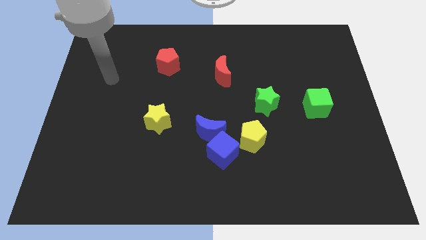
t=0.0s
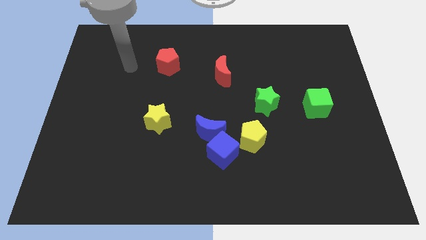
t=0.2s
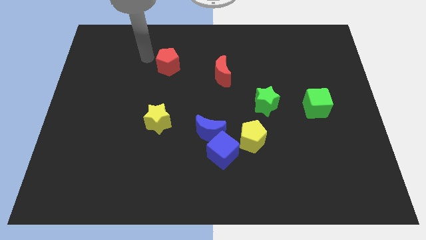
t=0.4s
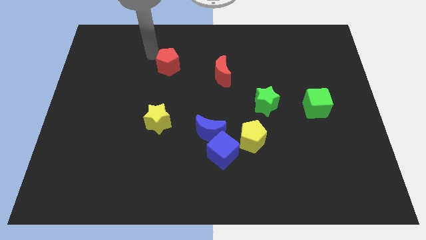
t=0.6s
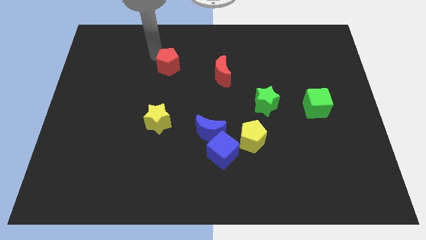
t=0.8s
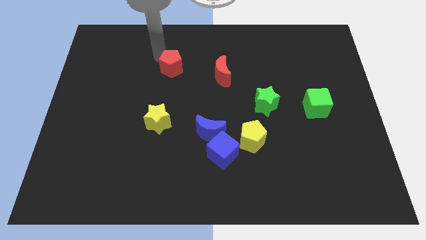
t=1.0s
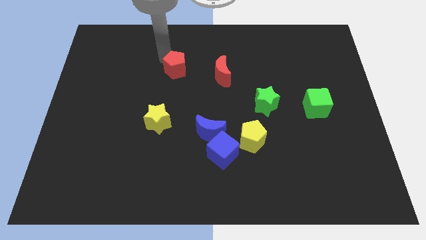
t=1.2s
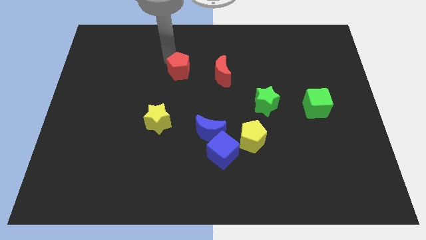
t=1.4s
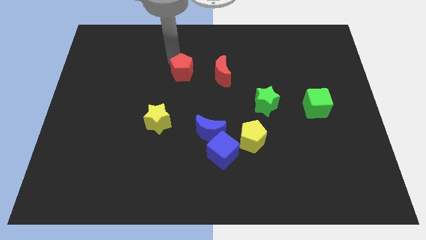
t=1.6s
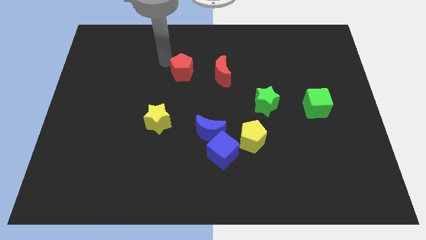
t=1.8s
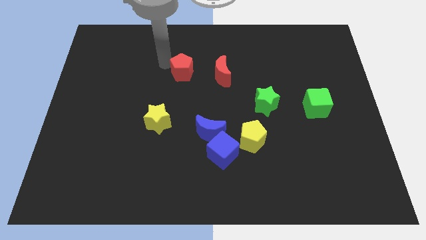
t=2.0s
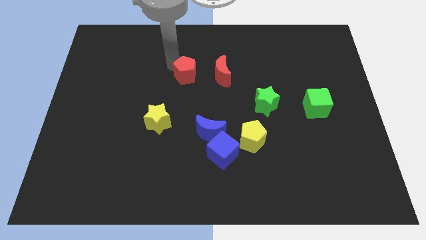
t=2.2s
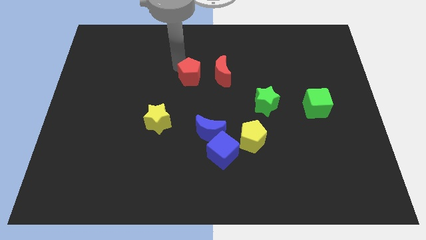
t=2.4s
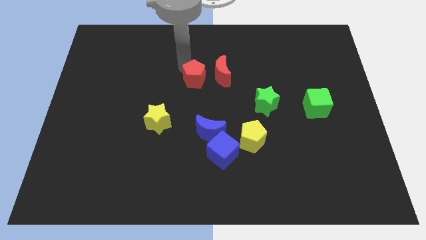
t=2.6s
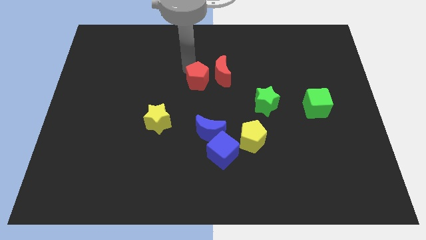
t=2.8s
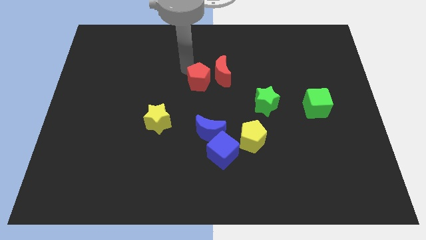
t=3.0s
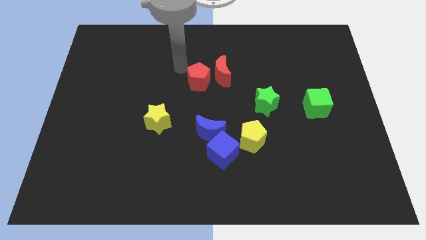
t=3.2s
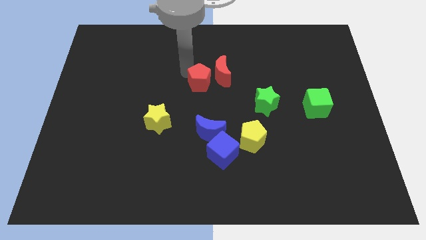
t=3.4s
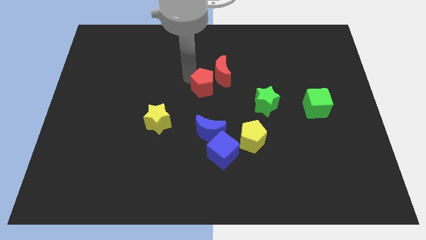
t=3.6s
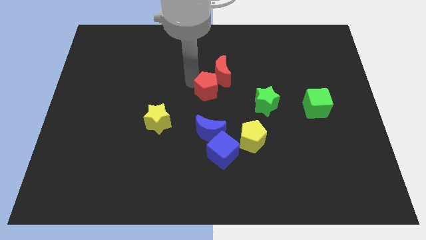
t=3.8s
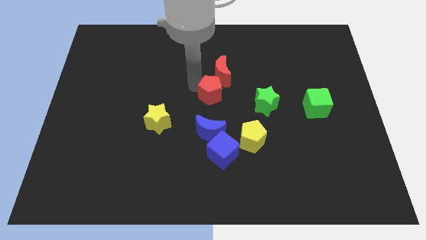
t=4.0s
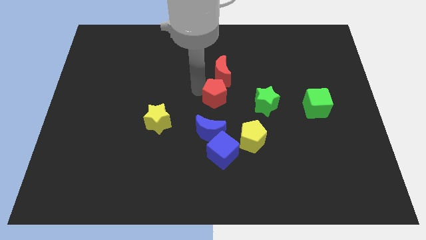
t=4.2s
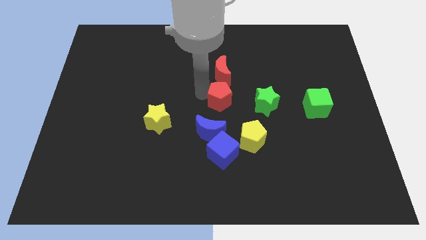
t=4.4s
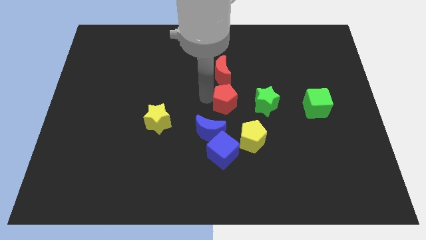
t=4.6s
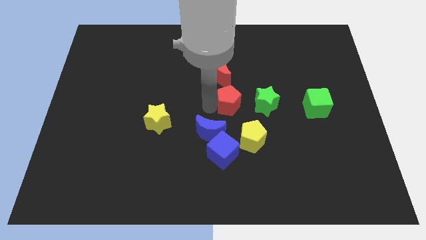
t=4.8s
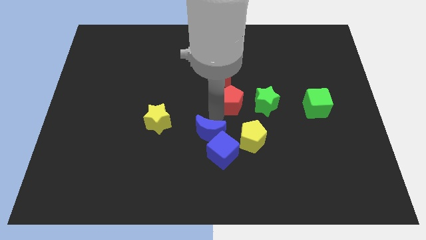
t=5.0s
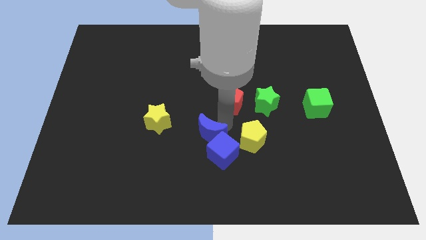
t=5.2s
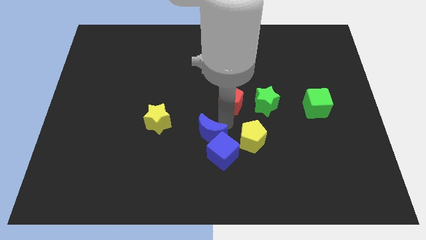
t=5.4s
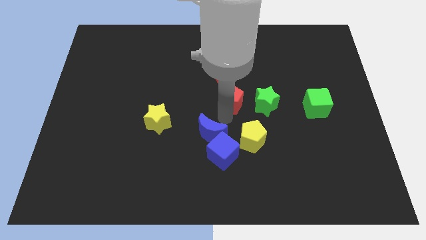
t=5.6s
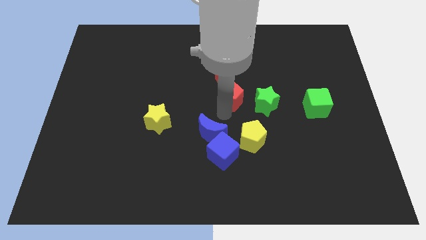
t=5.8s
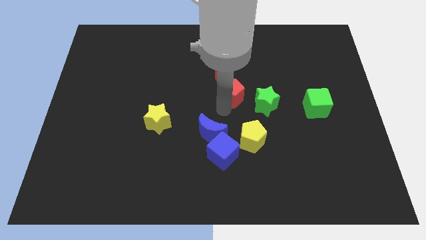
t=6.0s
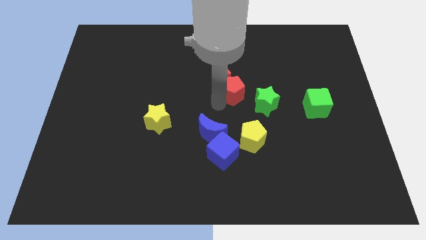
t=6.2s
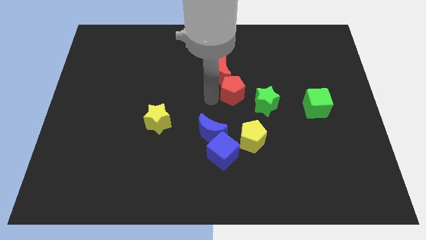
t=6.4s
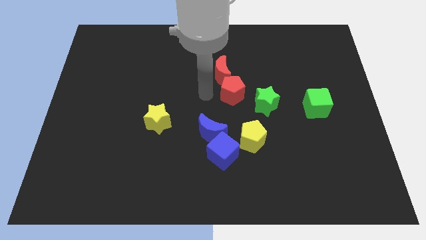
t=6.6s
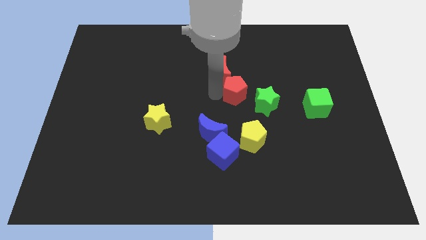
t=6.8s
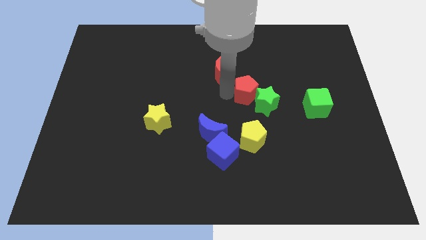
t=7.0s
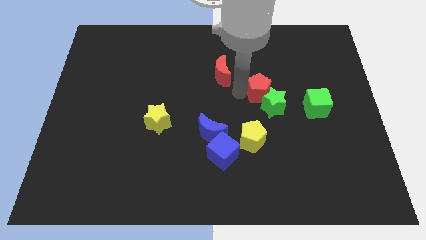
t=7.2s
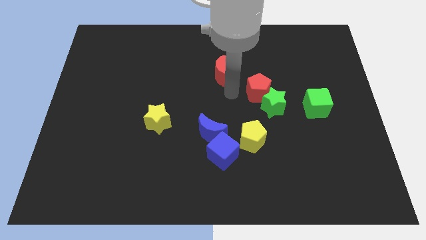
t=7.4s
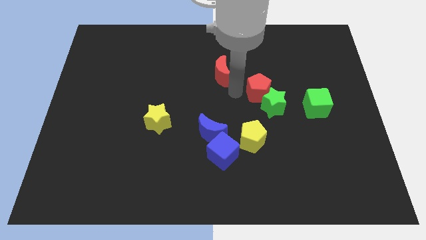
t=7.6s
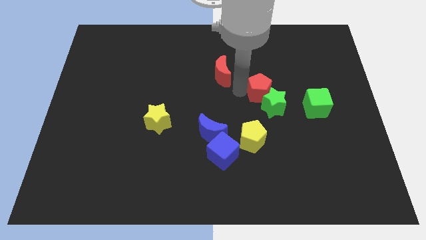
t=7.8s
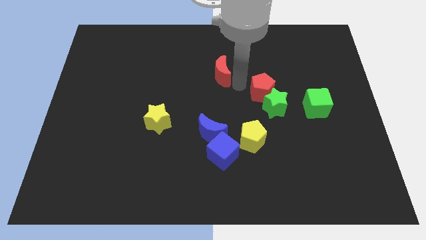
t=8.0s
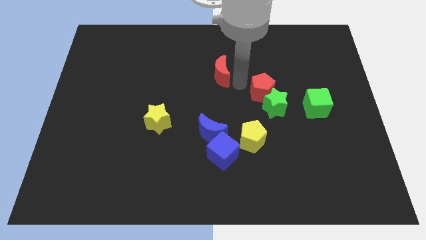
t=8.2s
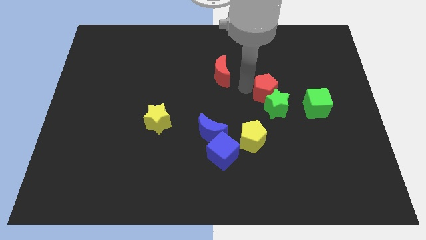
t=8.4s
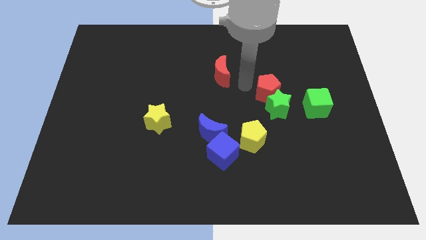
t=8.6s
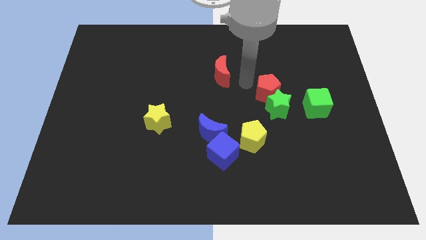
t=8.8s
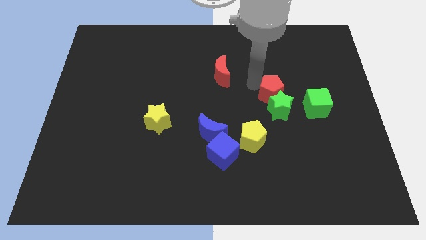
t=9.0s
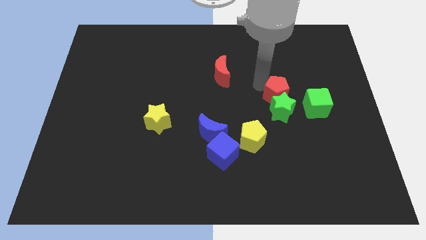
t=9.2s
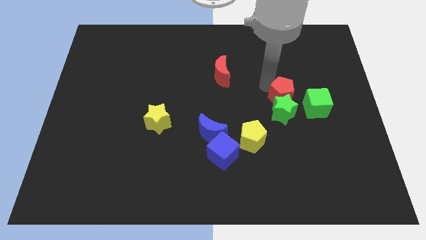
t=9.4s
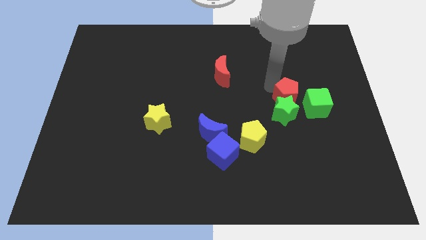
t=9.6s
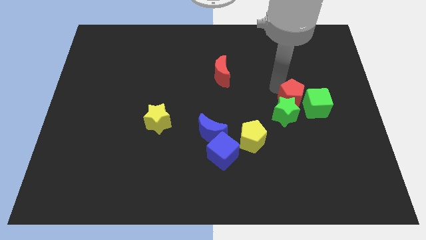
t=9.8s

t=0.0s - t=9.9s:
push the red pentagon to the green cube

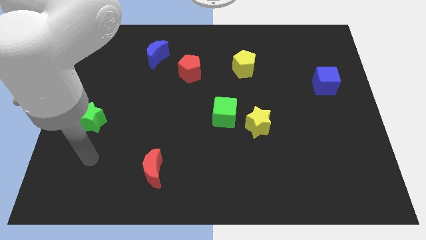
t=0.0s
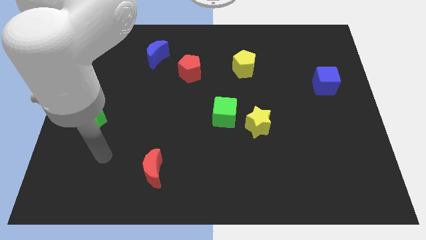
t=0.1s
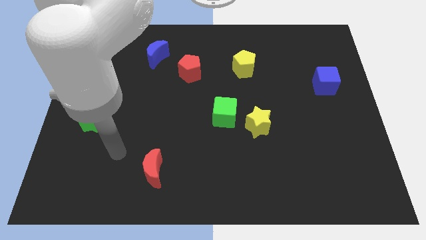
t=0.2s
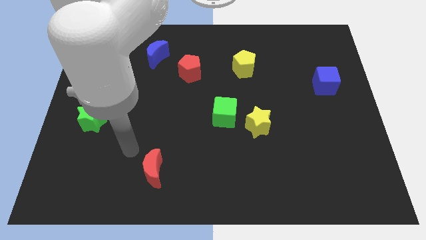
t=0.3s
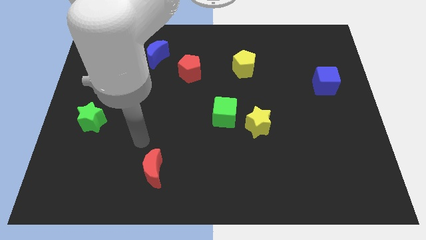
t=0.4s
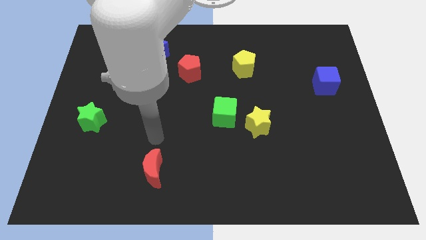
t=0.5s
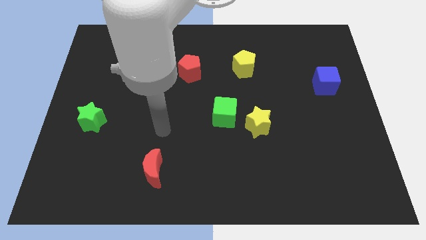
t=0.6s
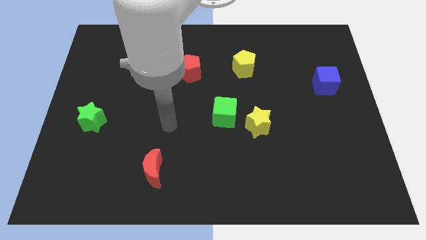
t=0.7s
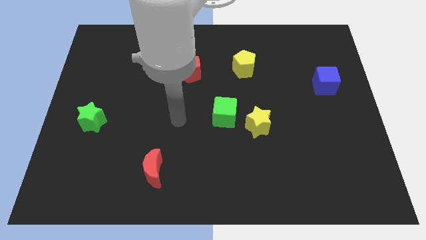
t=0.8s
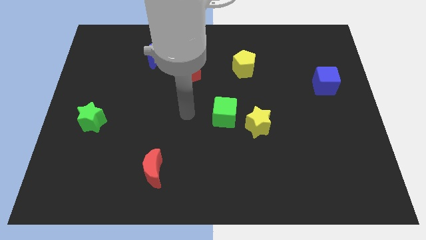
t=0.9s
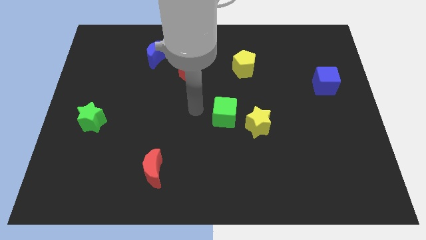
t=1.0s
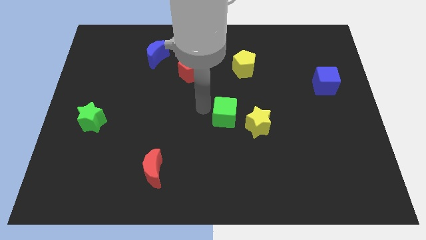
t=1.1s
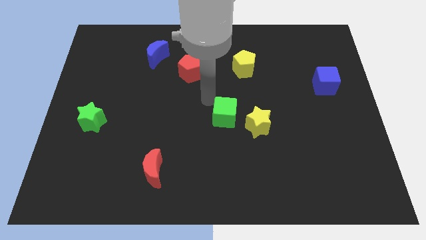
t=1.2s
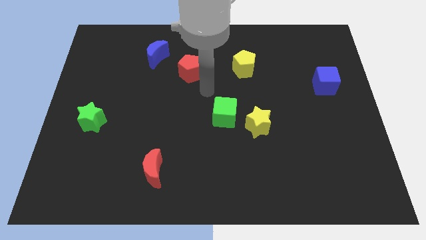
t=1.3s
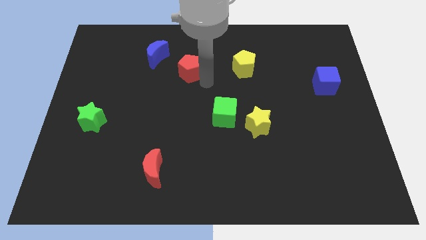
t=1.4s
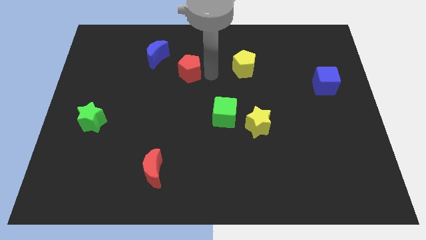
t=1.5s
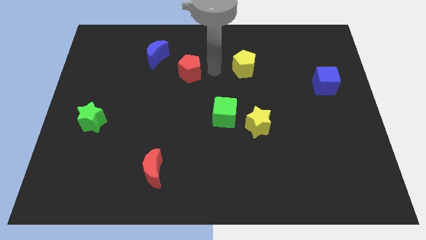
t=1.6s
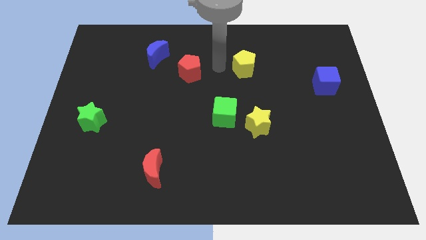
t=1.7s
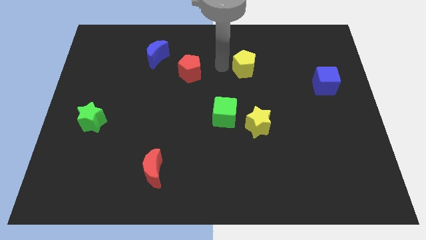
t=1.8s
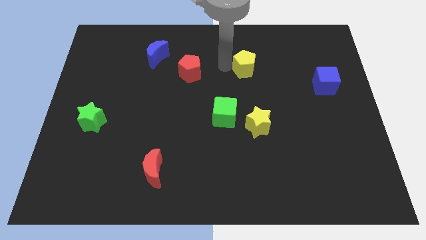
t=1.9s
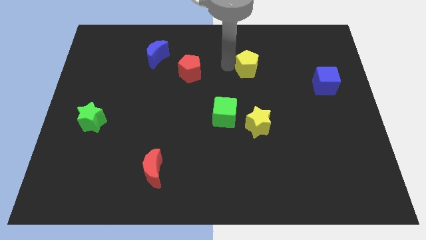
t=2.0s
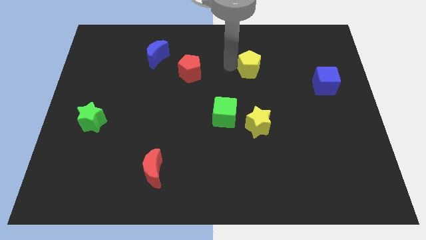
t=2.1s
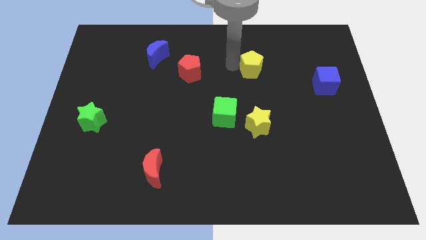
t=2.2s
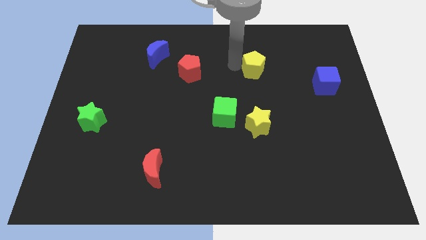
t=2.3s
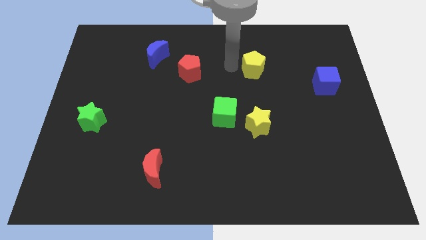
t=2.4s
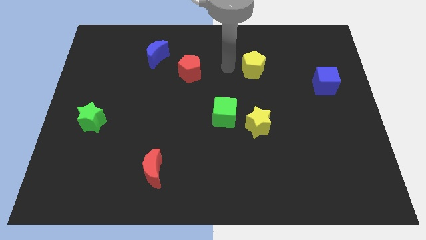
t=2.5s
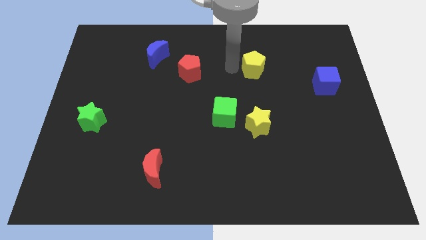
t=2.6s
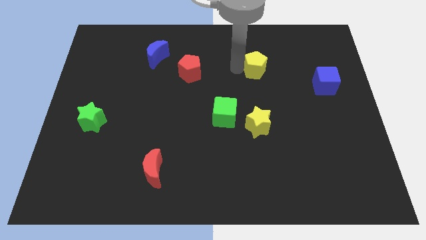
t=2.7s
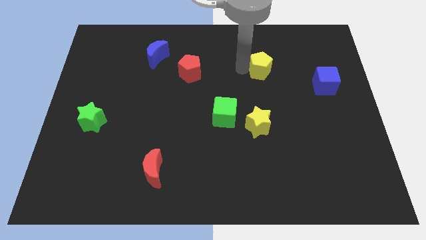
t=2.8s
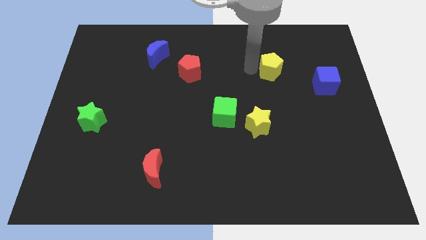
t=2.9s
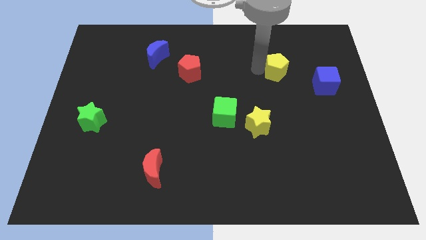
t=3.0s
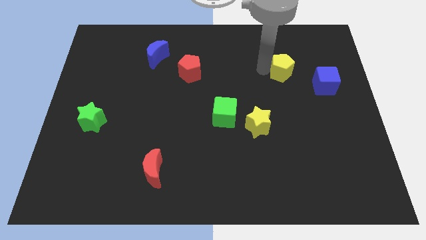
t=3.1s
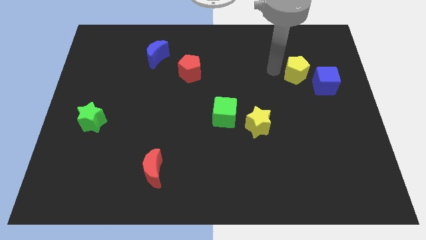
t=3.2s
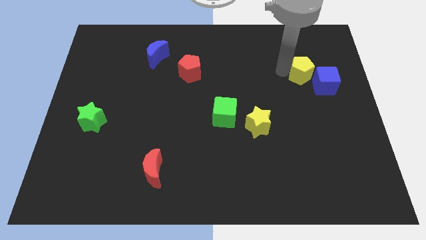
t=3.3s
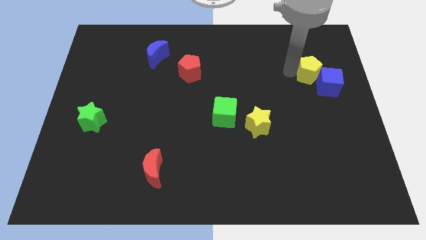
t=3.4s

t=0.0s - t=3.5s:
slide the yellow pentagon next to the blue cube
